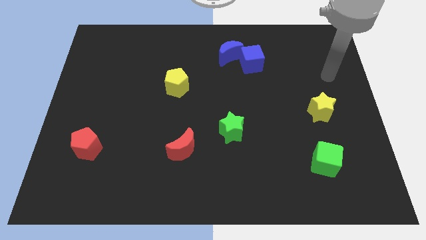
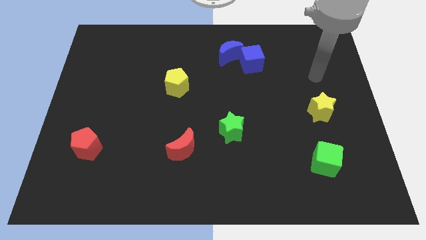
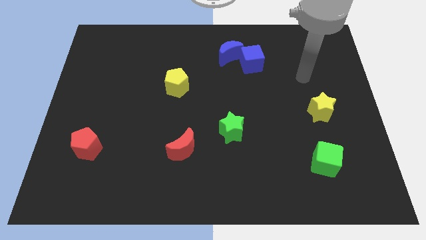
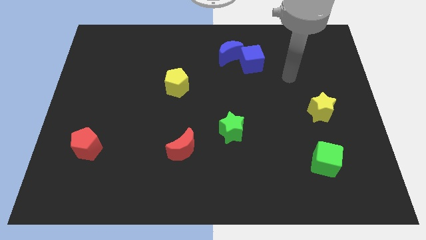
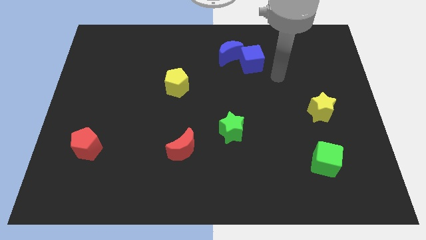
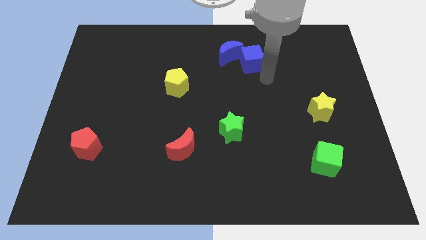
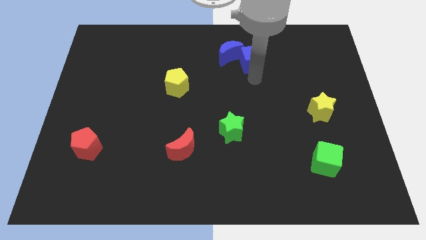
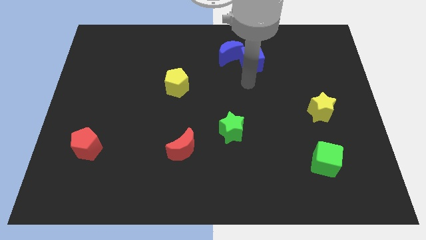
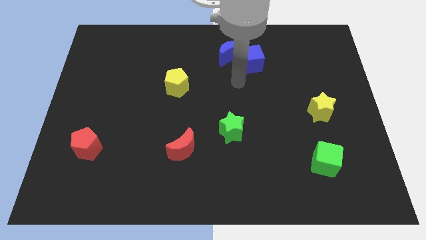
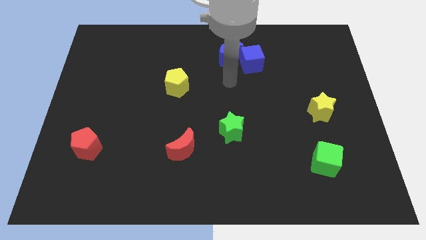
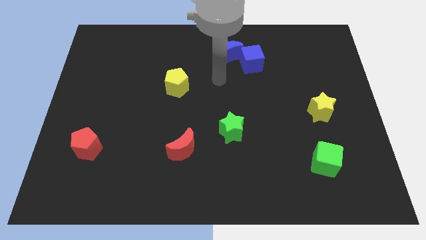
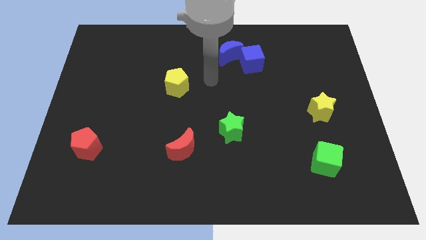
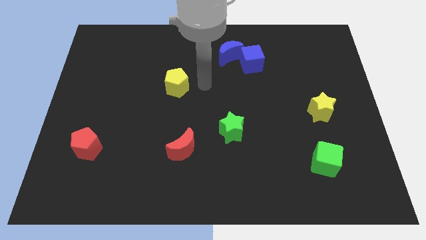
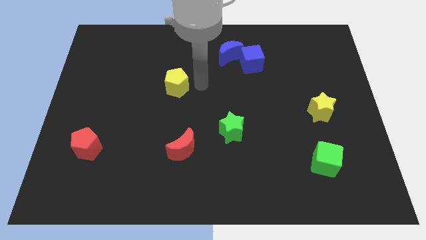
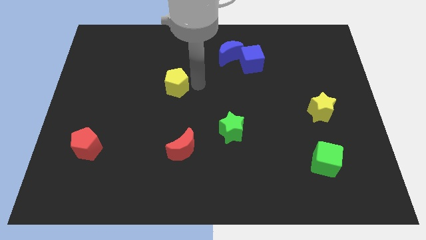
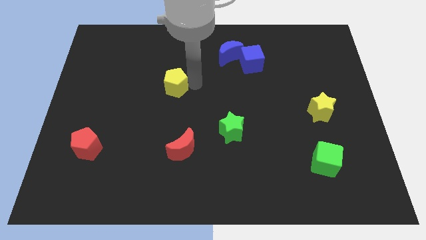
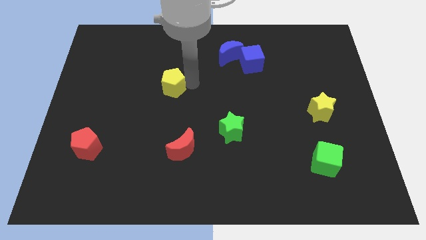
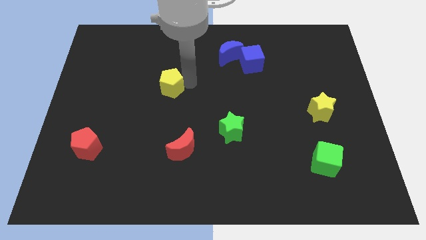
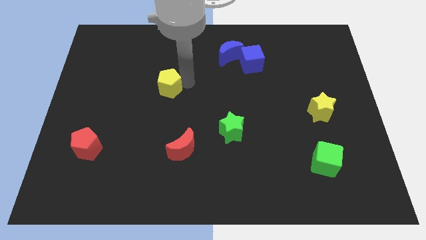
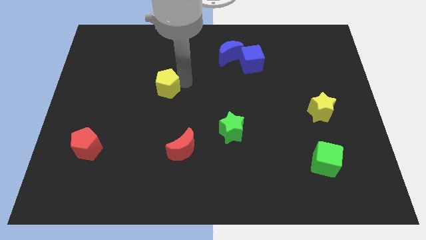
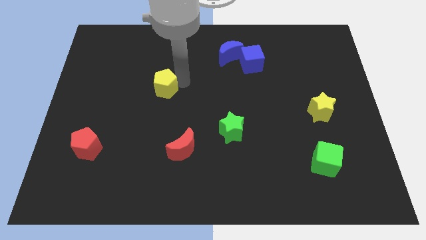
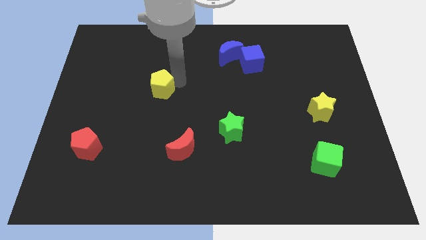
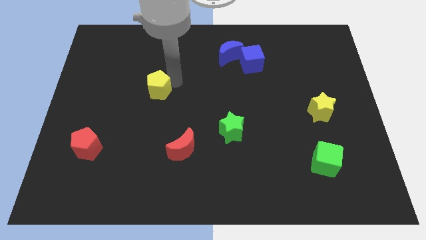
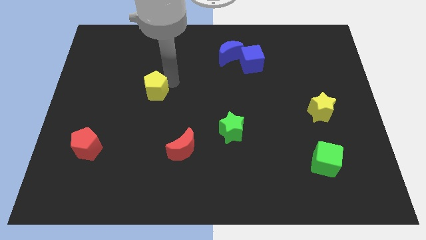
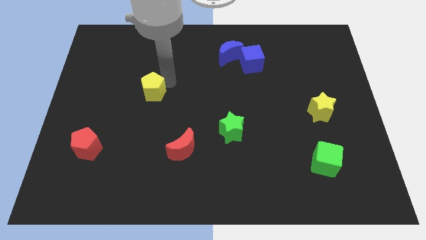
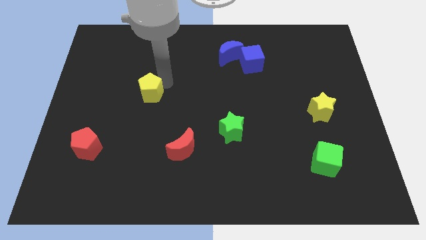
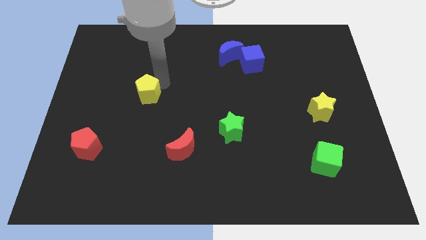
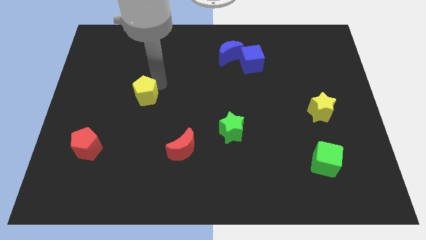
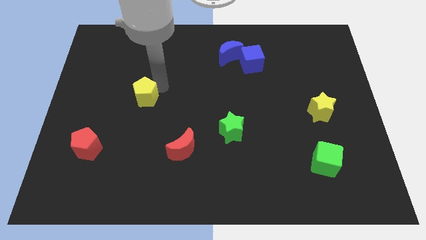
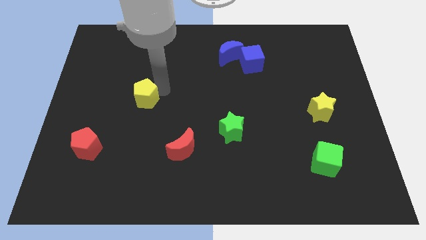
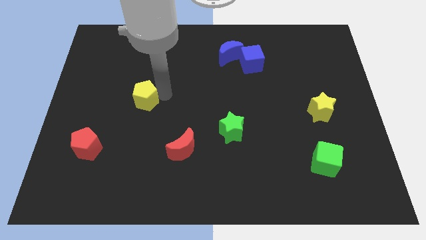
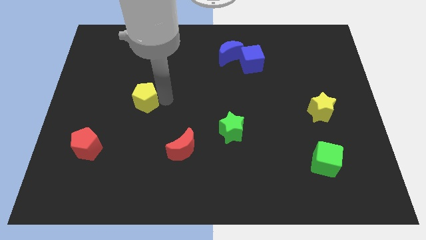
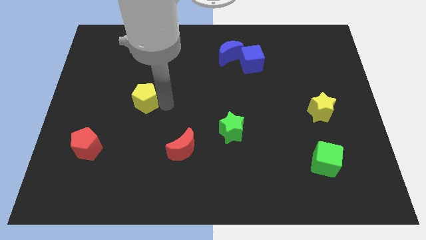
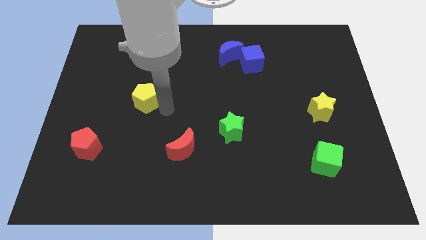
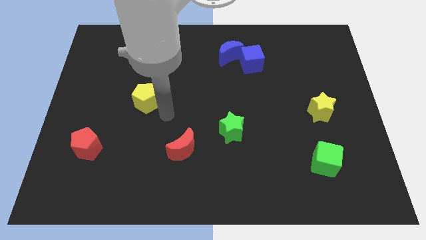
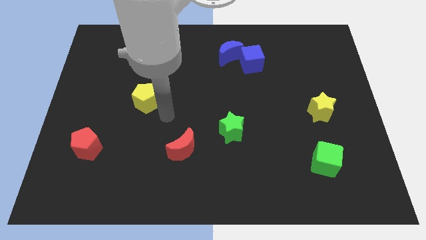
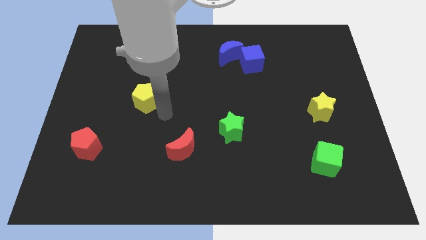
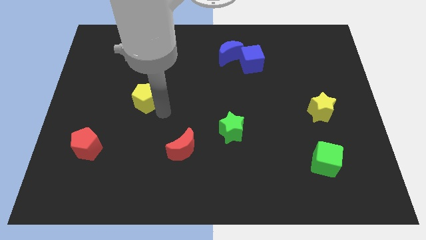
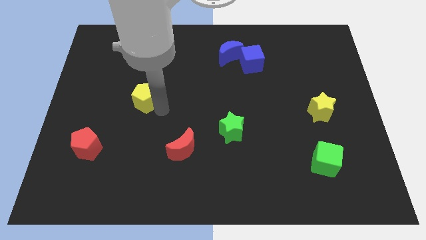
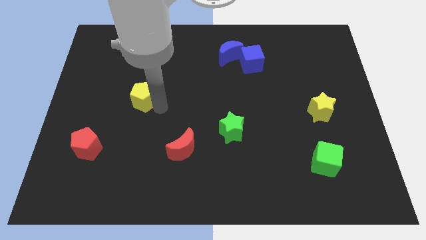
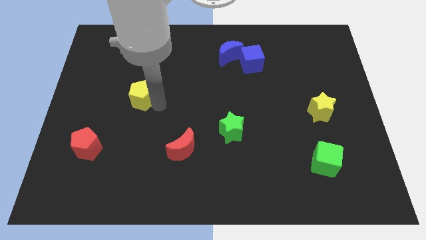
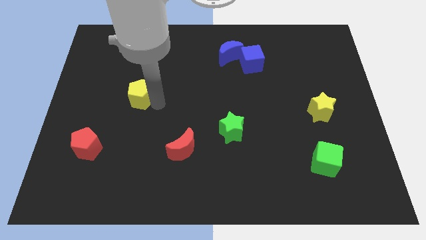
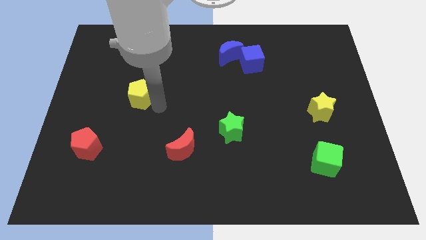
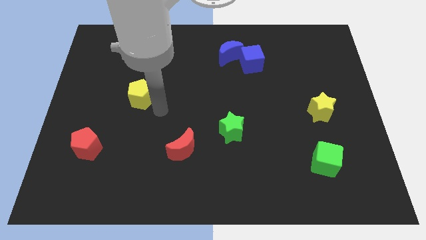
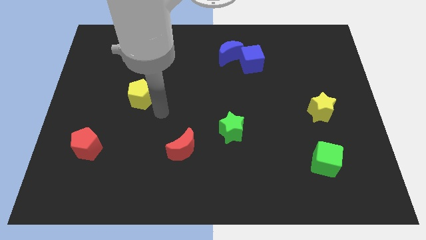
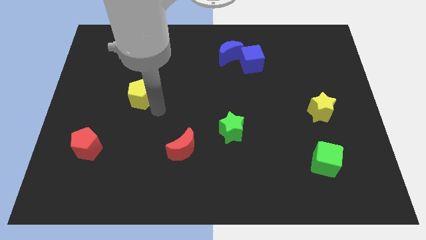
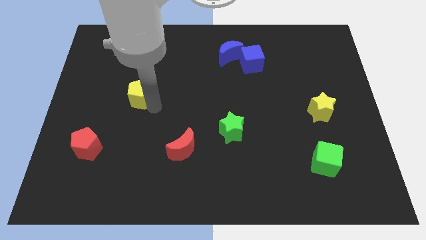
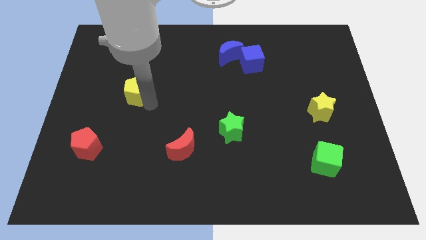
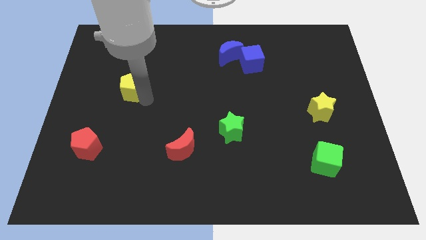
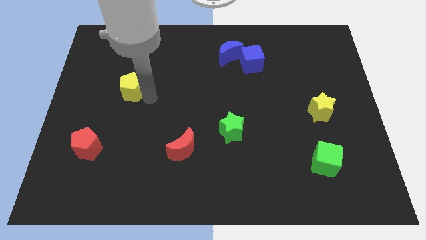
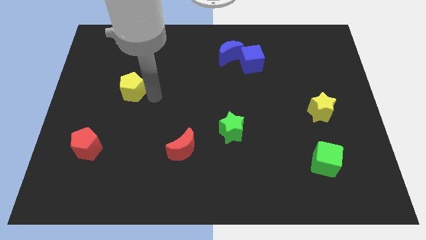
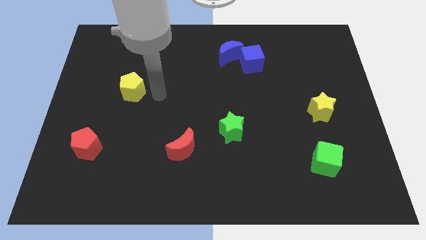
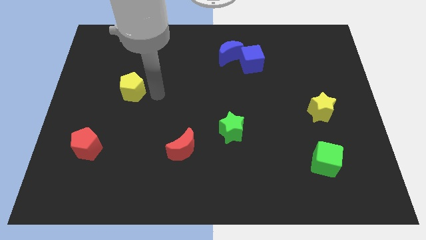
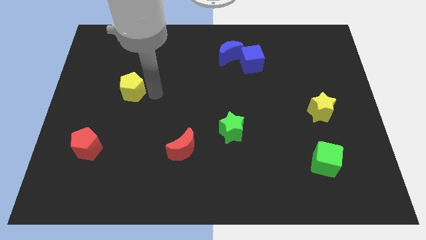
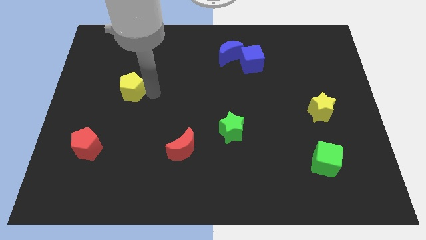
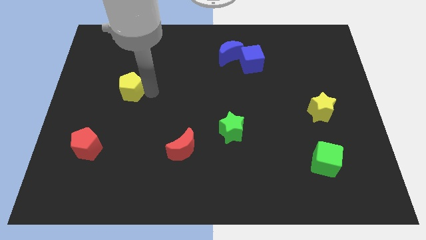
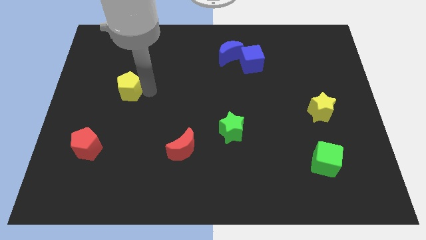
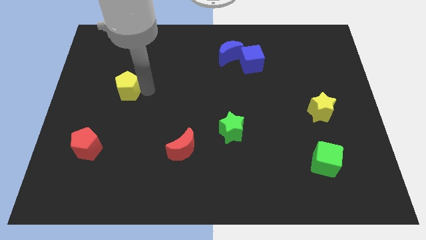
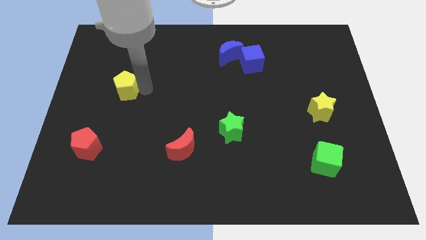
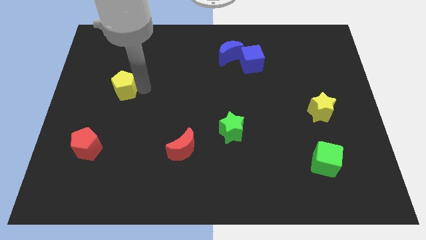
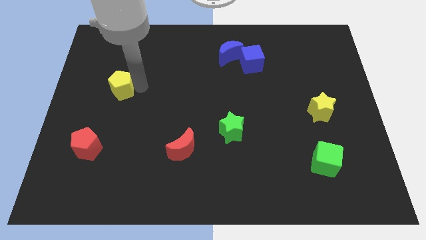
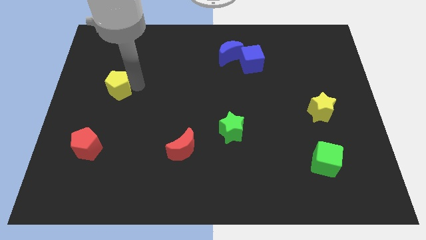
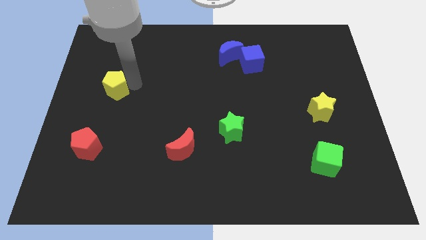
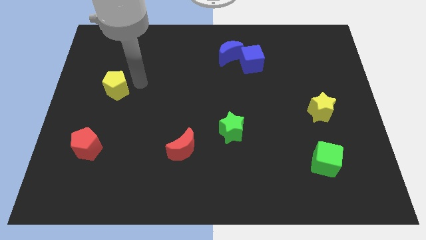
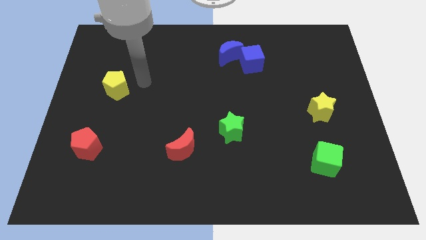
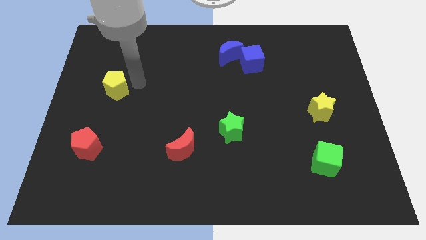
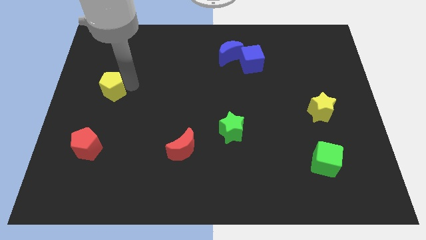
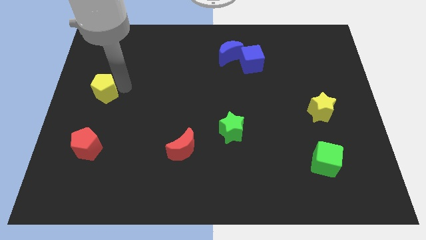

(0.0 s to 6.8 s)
put the yellow pentagon to the center left
